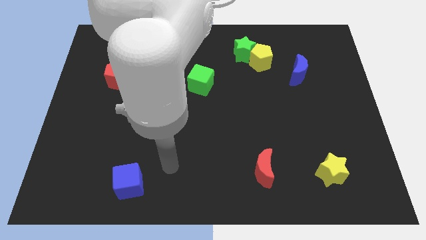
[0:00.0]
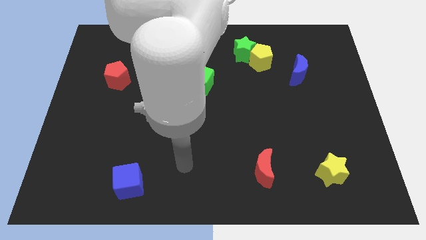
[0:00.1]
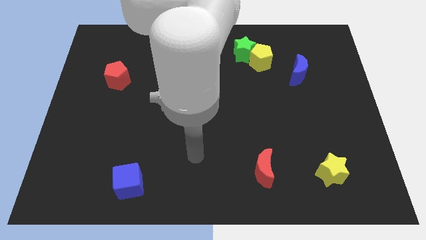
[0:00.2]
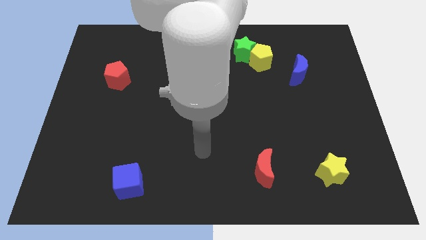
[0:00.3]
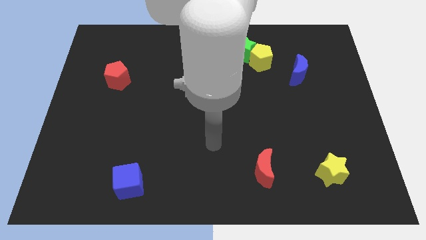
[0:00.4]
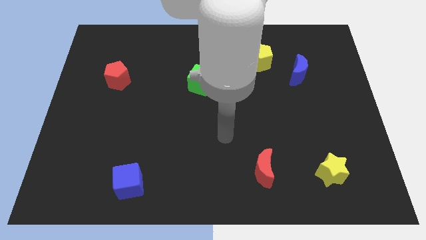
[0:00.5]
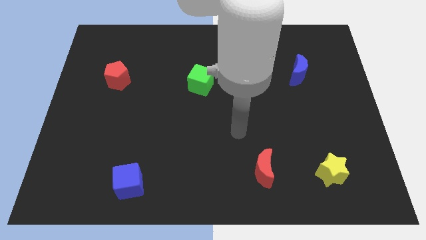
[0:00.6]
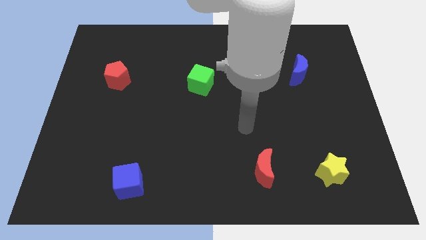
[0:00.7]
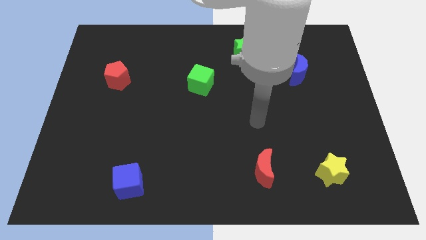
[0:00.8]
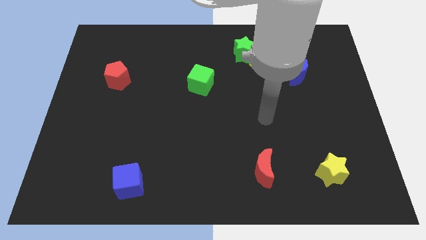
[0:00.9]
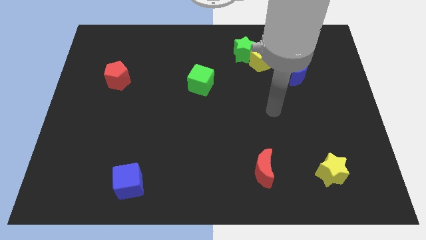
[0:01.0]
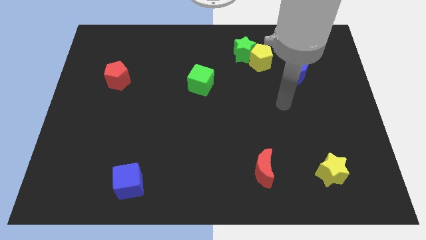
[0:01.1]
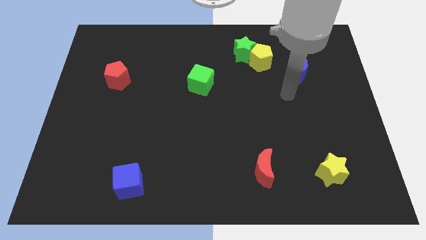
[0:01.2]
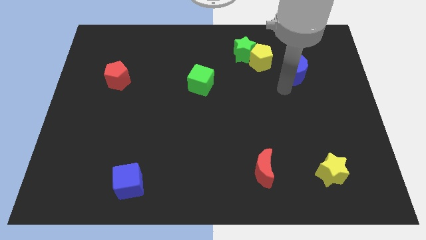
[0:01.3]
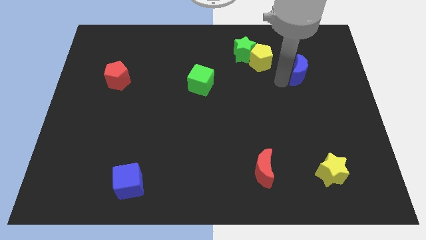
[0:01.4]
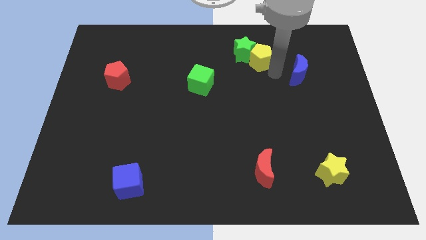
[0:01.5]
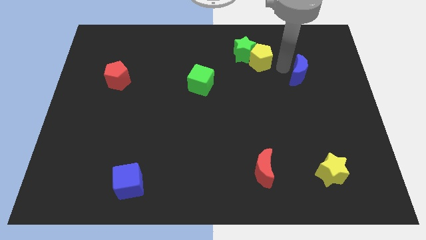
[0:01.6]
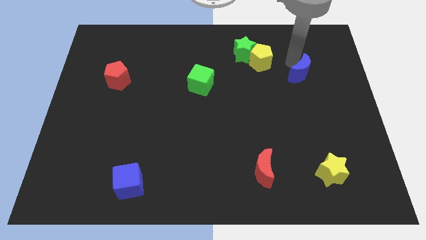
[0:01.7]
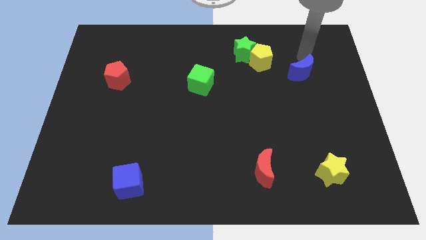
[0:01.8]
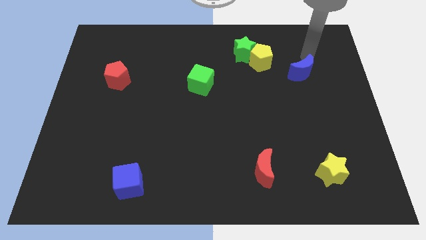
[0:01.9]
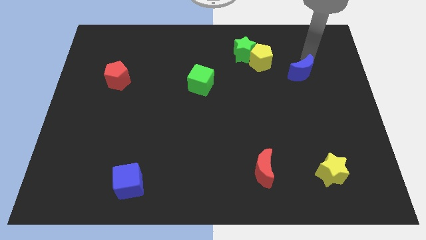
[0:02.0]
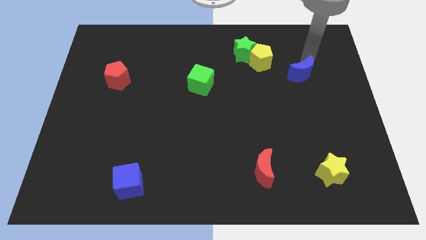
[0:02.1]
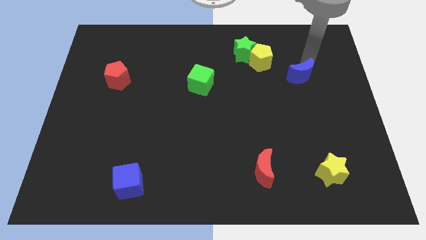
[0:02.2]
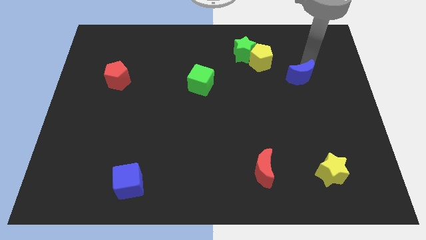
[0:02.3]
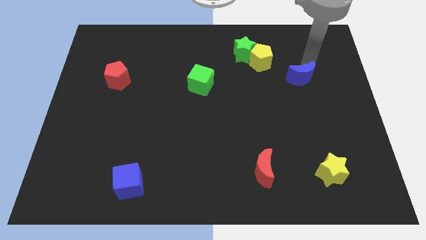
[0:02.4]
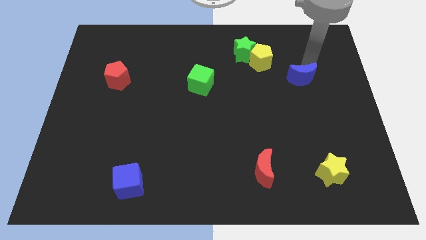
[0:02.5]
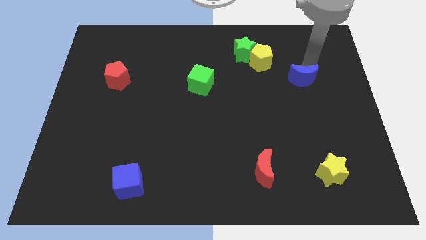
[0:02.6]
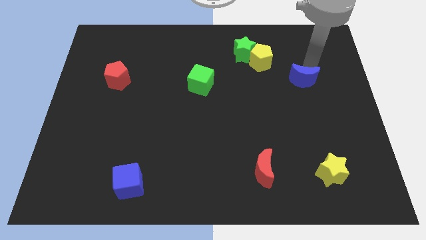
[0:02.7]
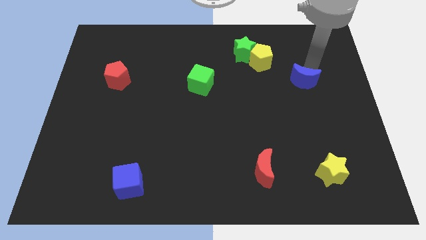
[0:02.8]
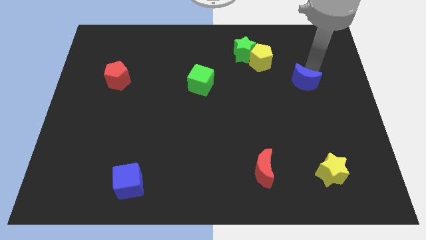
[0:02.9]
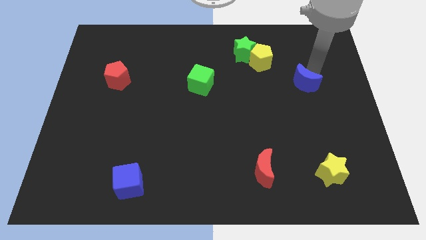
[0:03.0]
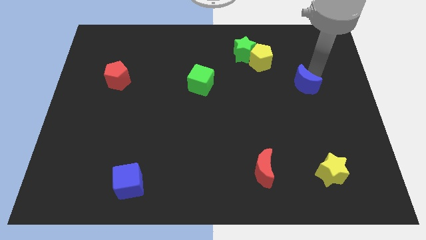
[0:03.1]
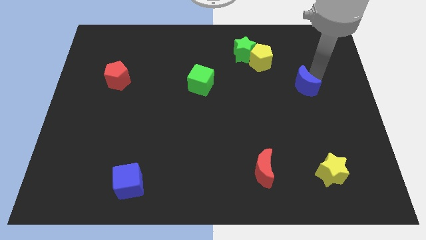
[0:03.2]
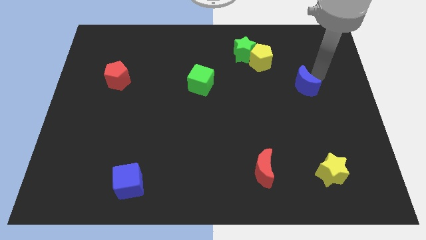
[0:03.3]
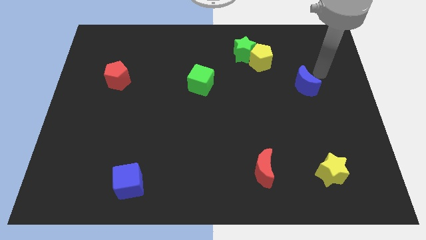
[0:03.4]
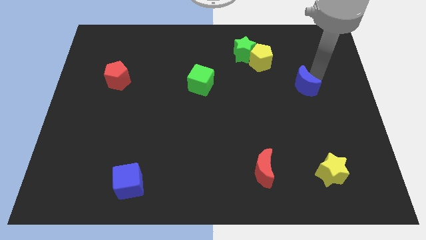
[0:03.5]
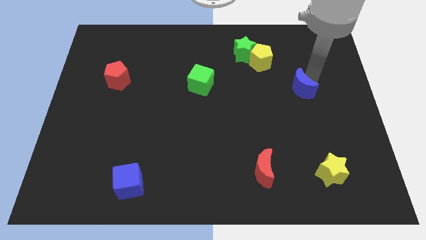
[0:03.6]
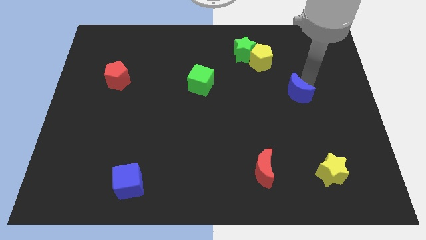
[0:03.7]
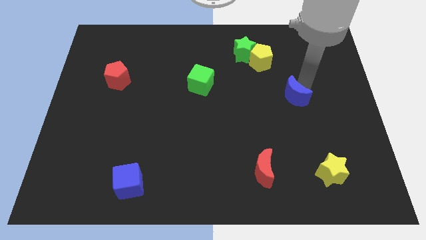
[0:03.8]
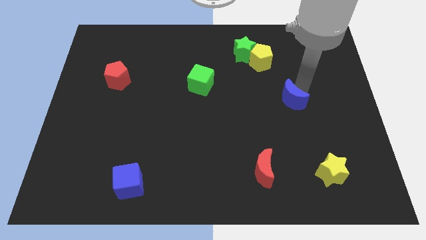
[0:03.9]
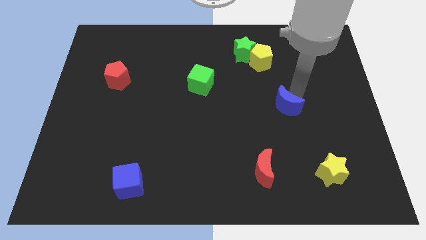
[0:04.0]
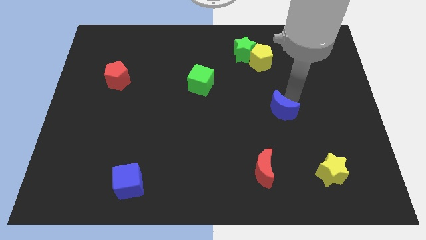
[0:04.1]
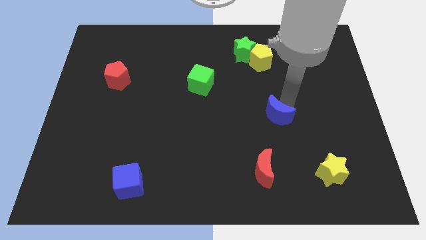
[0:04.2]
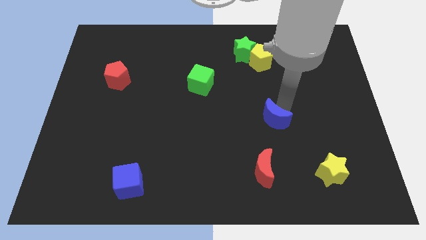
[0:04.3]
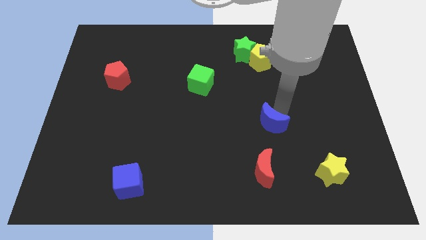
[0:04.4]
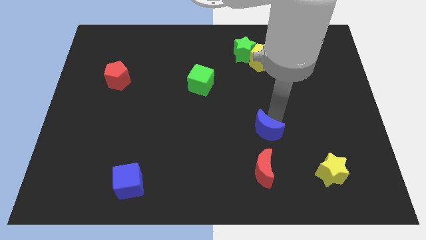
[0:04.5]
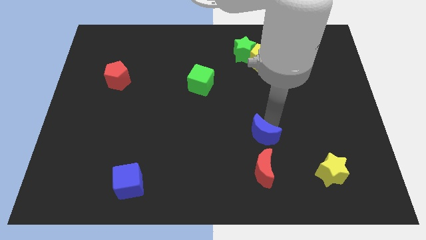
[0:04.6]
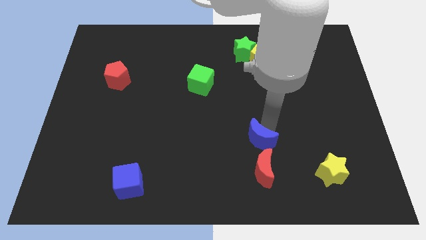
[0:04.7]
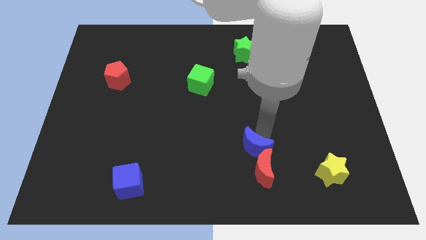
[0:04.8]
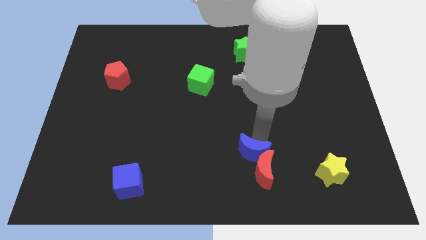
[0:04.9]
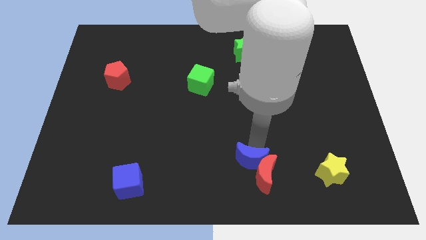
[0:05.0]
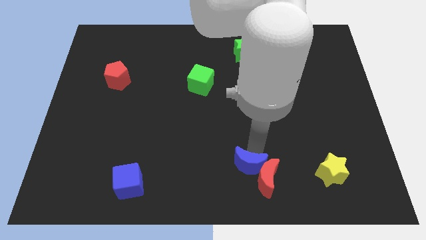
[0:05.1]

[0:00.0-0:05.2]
push the blue moon to the bottom side

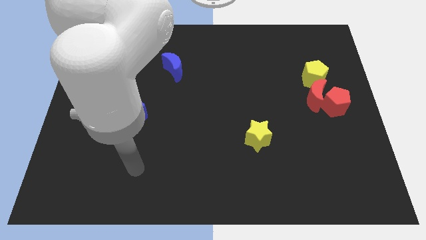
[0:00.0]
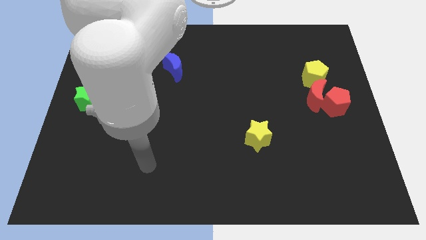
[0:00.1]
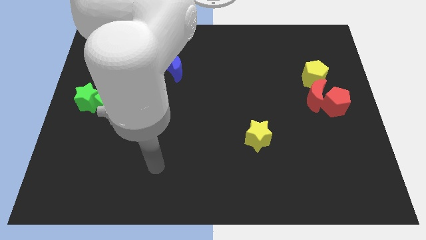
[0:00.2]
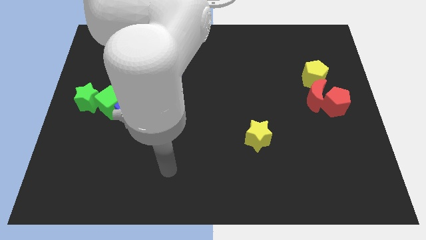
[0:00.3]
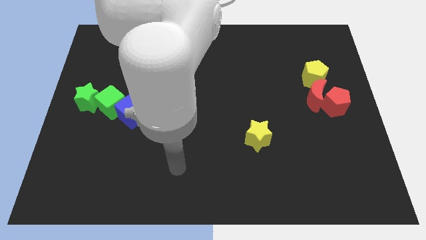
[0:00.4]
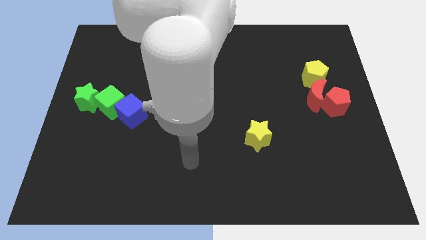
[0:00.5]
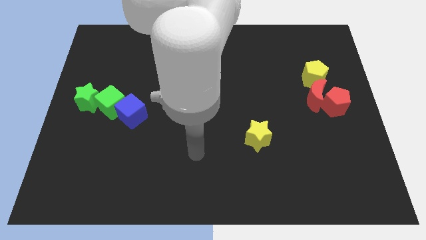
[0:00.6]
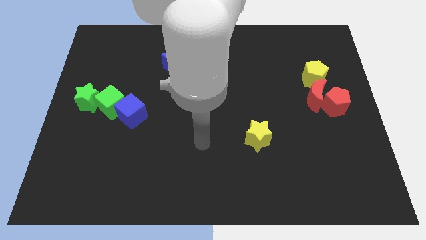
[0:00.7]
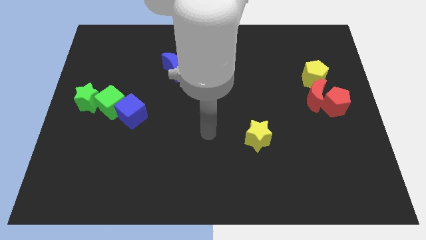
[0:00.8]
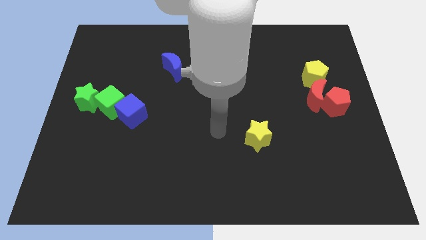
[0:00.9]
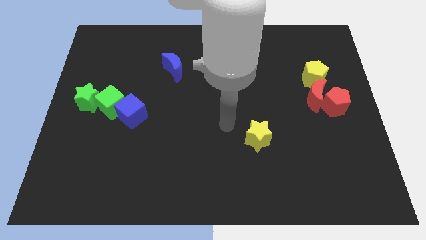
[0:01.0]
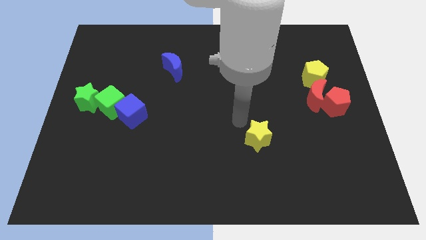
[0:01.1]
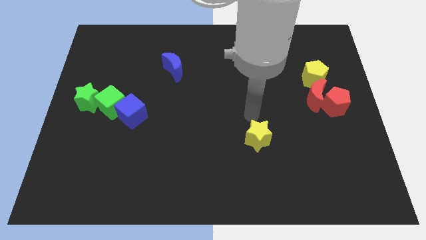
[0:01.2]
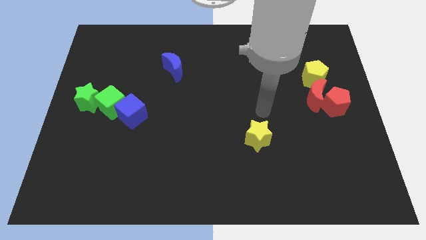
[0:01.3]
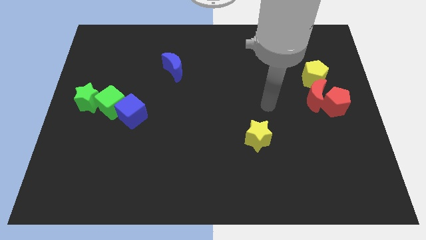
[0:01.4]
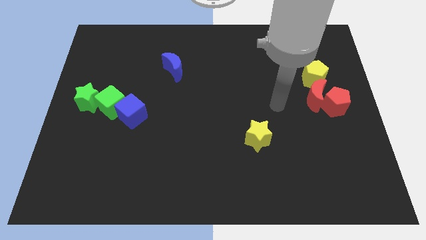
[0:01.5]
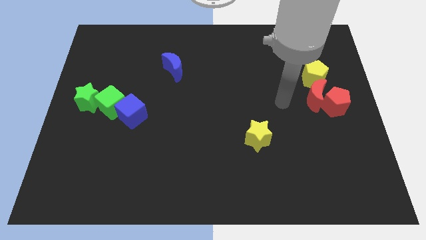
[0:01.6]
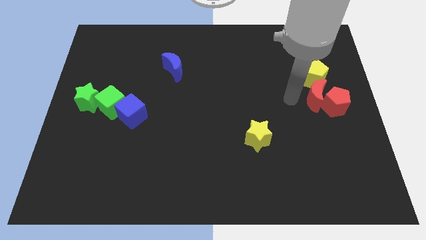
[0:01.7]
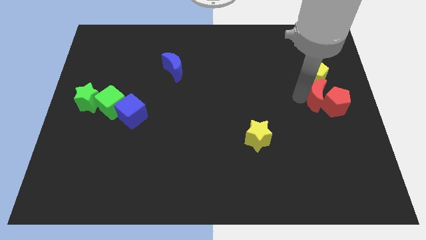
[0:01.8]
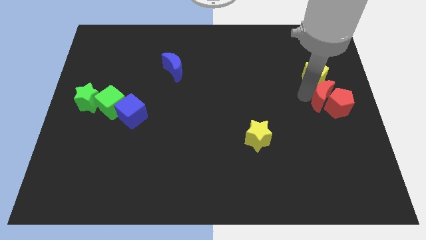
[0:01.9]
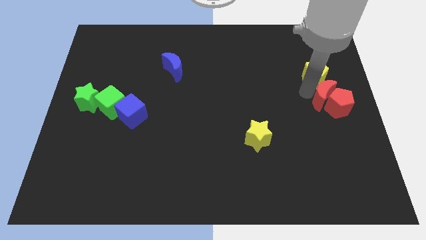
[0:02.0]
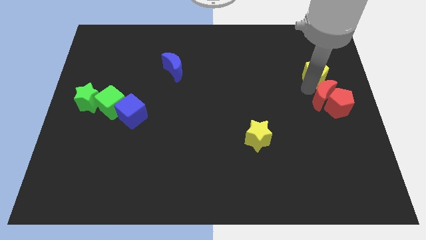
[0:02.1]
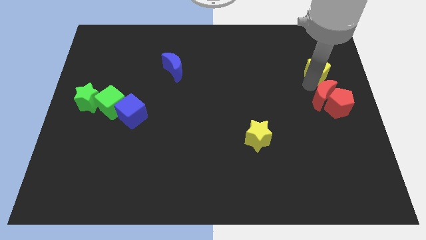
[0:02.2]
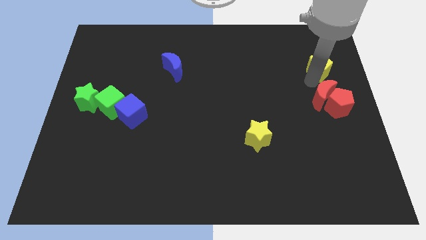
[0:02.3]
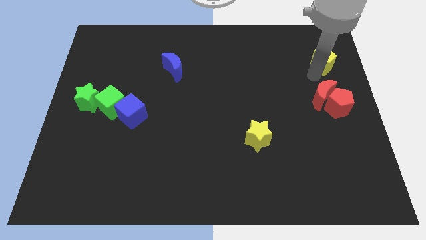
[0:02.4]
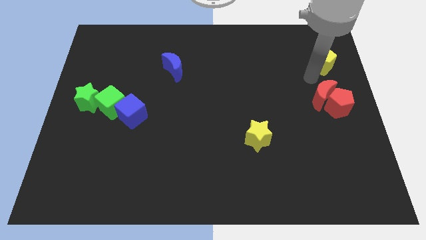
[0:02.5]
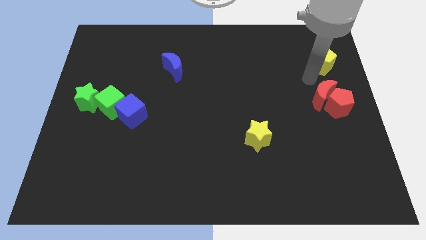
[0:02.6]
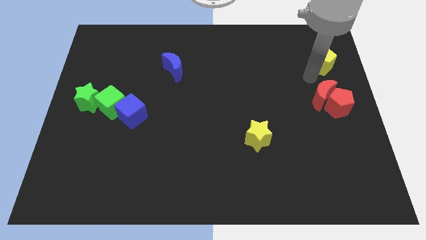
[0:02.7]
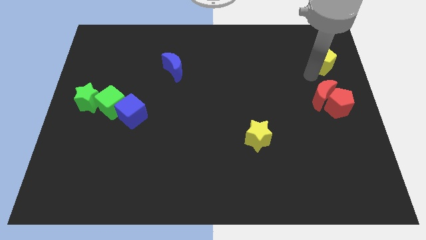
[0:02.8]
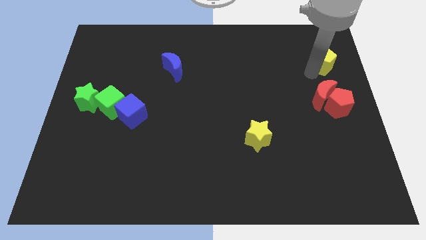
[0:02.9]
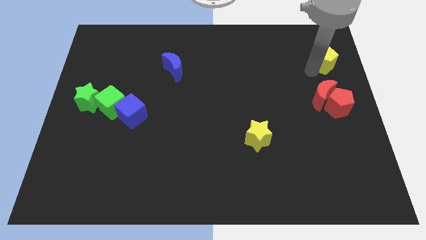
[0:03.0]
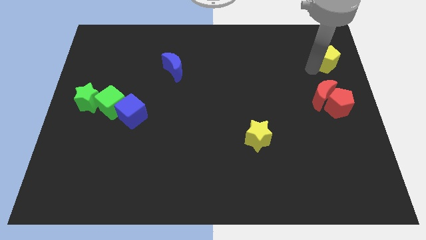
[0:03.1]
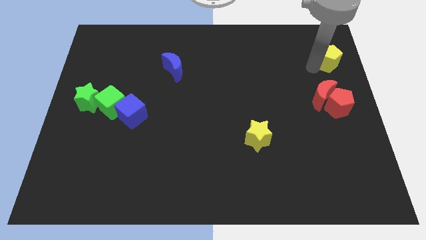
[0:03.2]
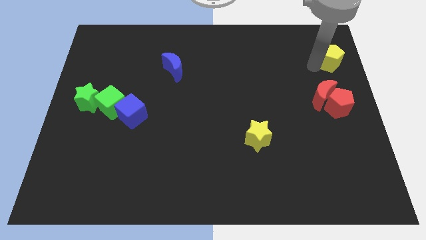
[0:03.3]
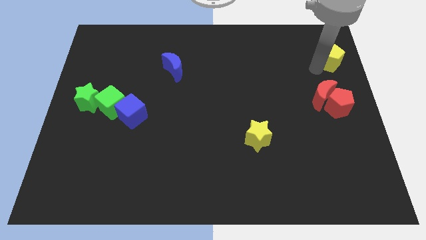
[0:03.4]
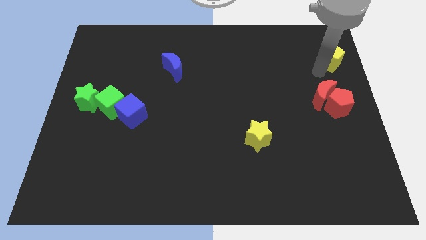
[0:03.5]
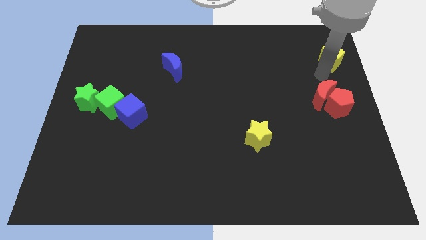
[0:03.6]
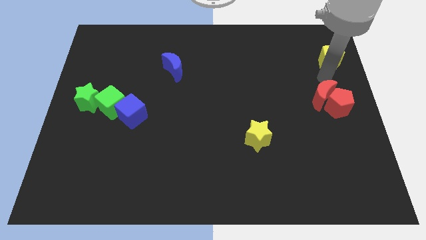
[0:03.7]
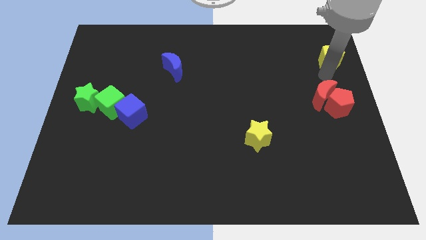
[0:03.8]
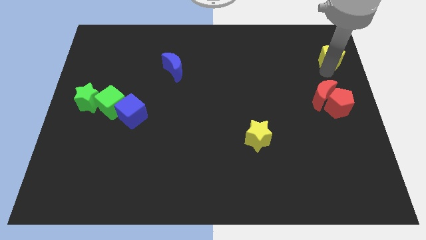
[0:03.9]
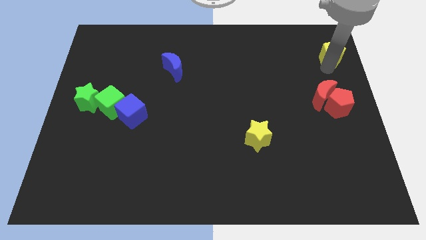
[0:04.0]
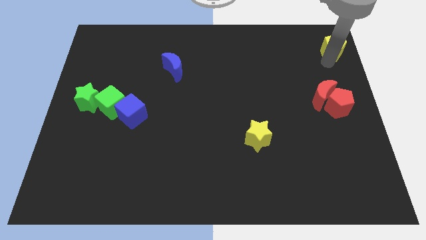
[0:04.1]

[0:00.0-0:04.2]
put the yellow pentagon to the top right of the board
